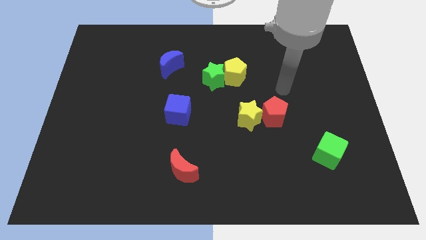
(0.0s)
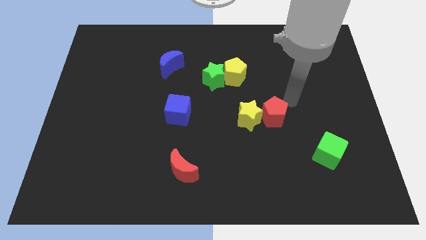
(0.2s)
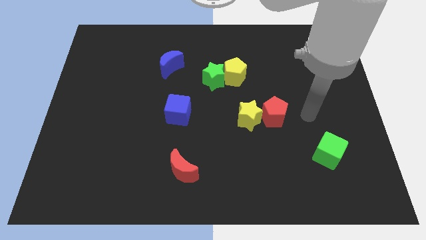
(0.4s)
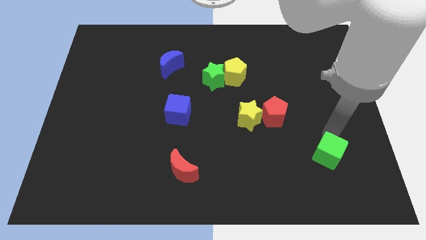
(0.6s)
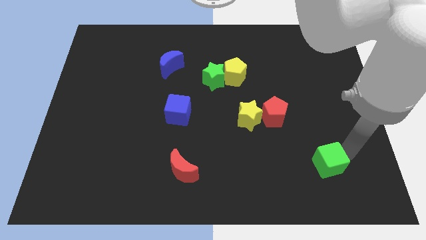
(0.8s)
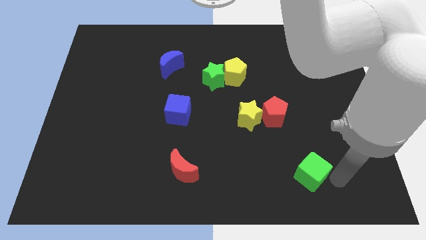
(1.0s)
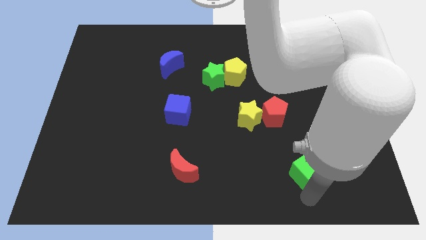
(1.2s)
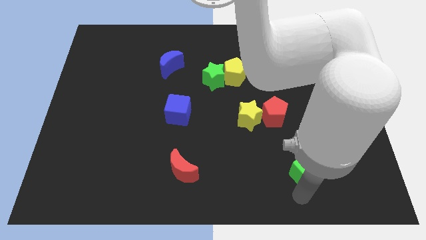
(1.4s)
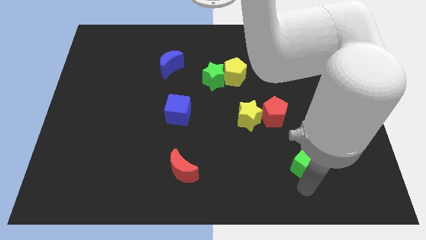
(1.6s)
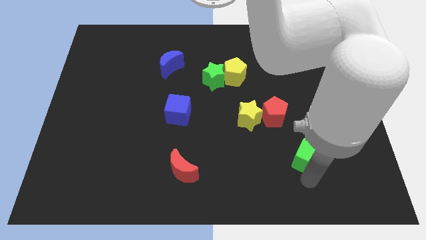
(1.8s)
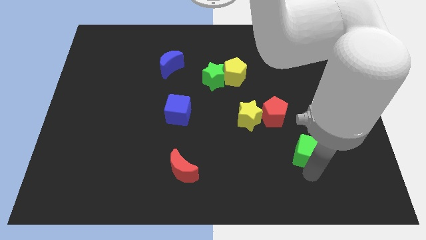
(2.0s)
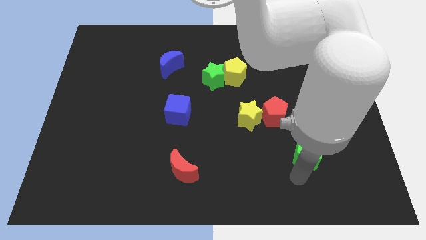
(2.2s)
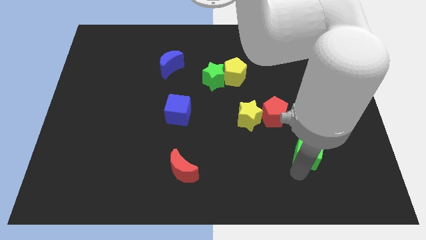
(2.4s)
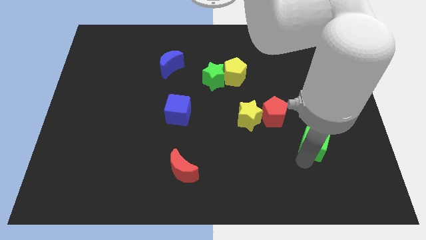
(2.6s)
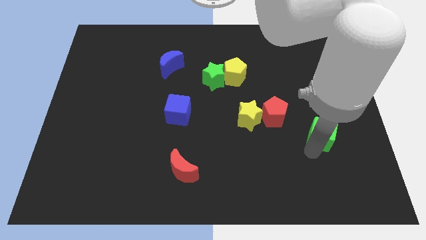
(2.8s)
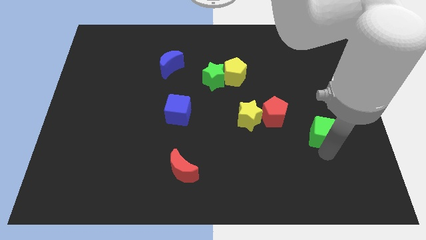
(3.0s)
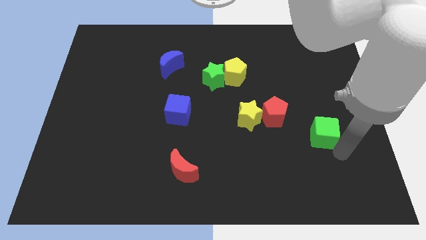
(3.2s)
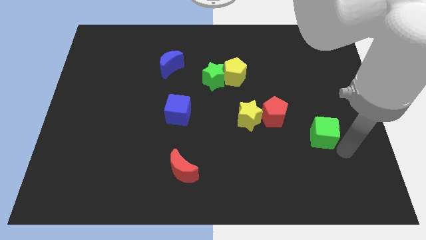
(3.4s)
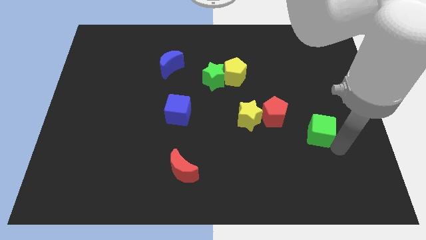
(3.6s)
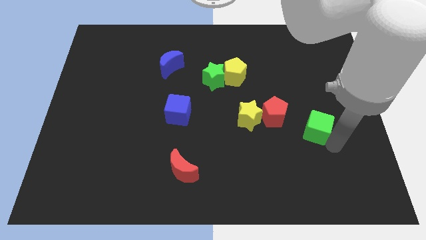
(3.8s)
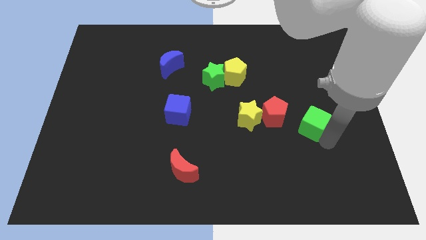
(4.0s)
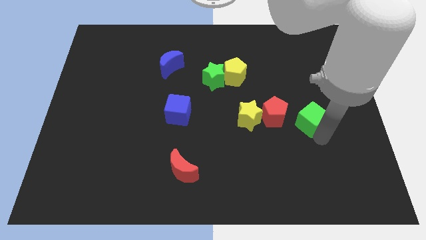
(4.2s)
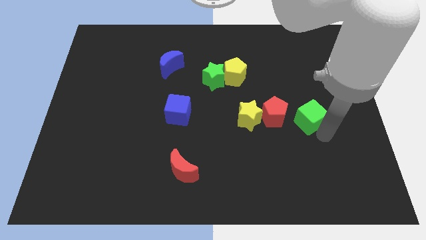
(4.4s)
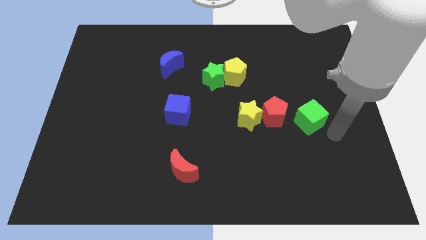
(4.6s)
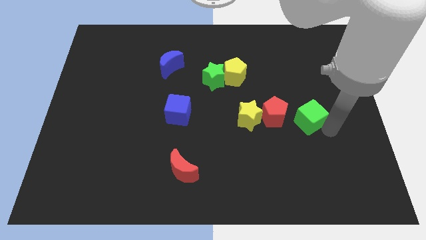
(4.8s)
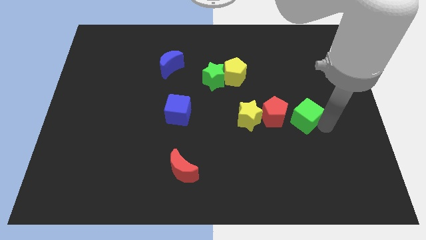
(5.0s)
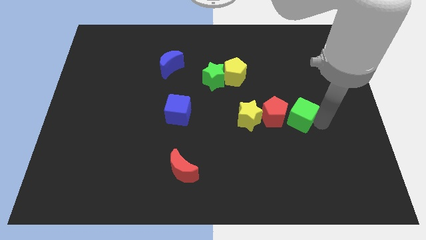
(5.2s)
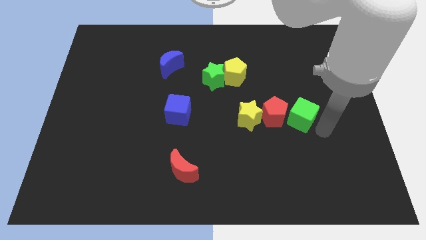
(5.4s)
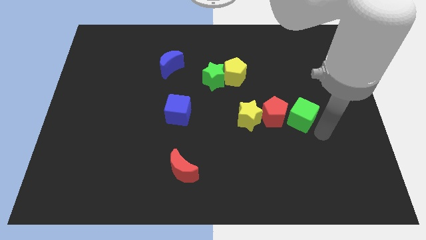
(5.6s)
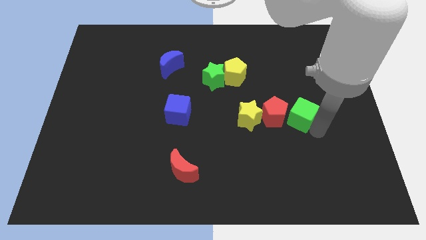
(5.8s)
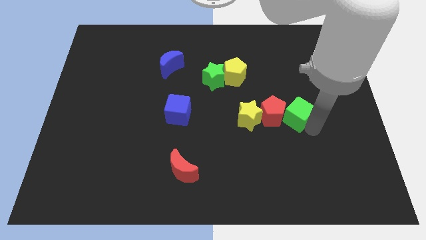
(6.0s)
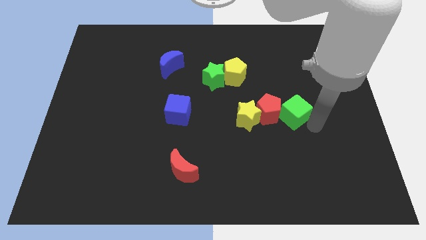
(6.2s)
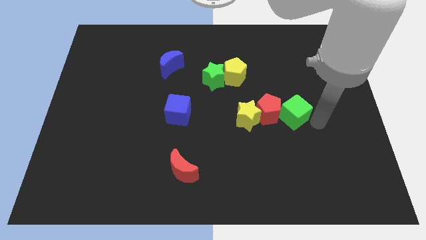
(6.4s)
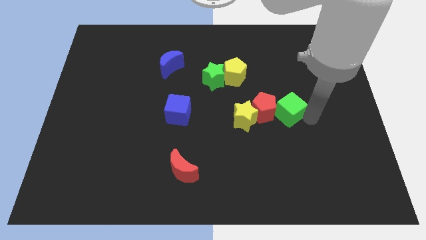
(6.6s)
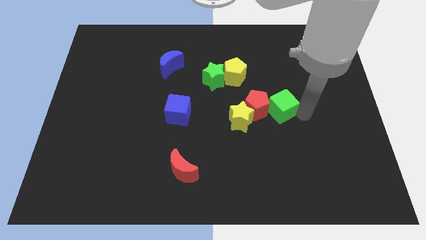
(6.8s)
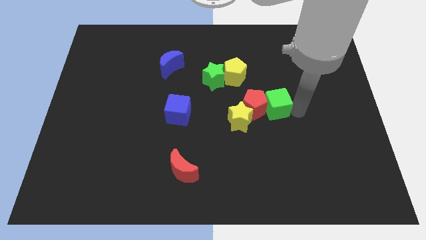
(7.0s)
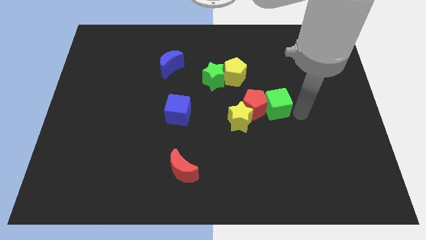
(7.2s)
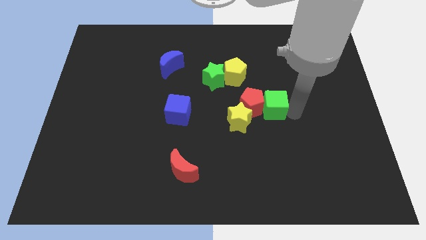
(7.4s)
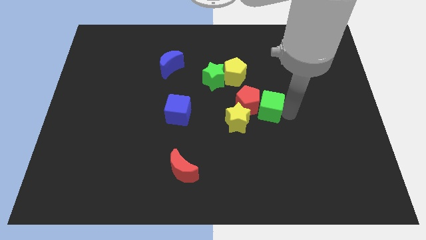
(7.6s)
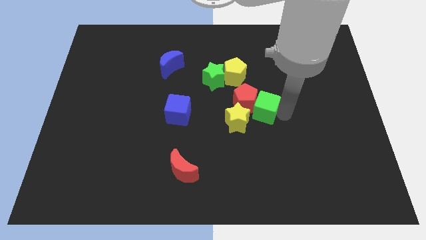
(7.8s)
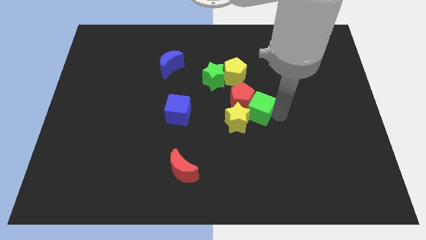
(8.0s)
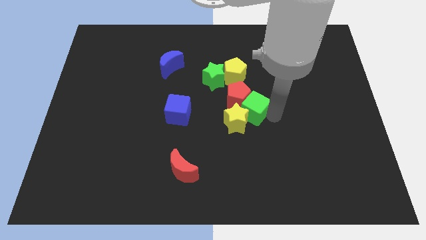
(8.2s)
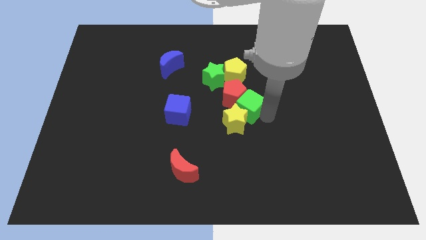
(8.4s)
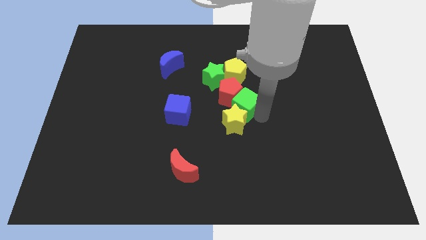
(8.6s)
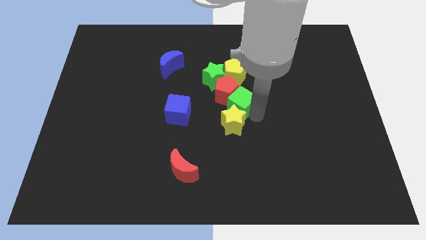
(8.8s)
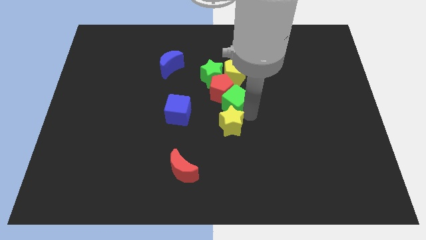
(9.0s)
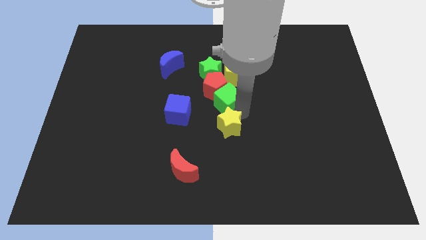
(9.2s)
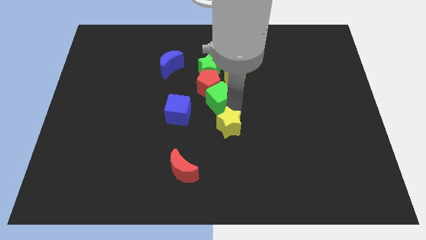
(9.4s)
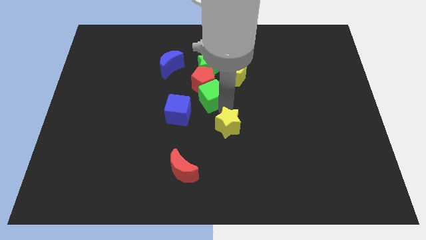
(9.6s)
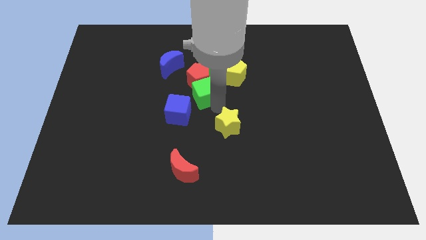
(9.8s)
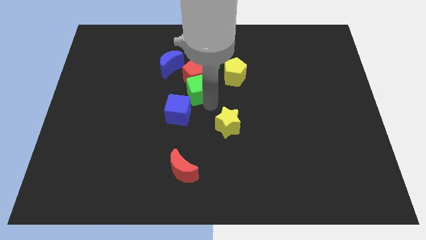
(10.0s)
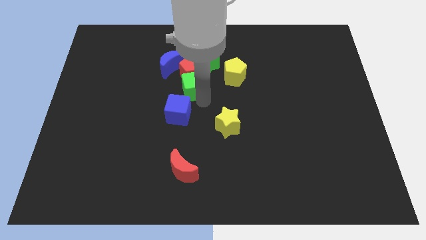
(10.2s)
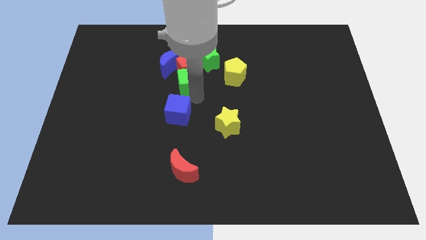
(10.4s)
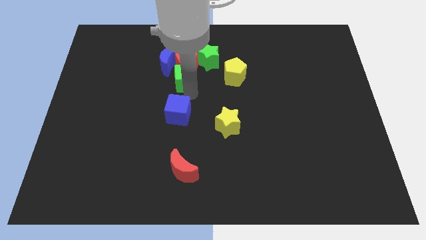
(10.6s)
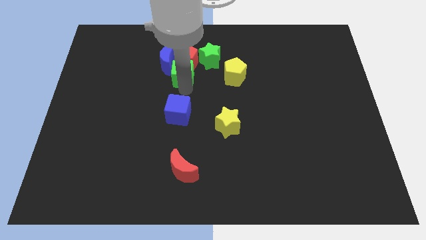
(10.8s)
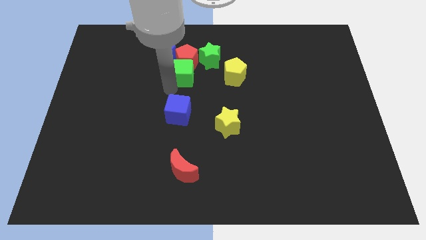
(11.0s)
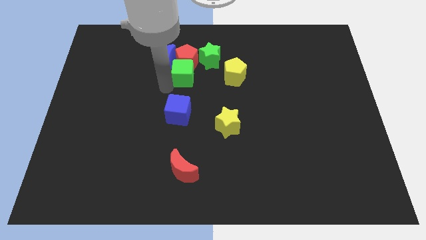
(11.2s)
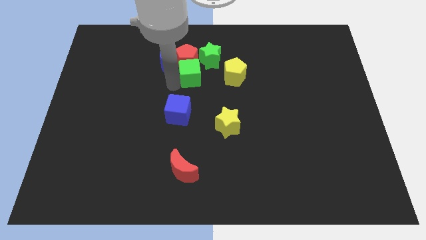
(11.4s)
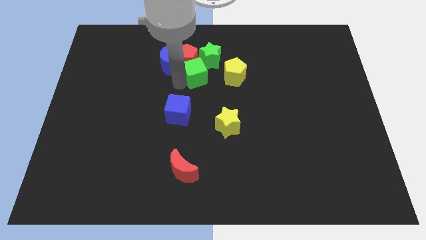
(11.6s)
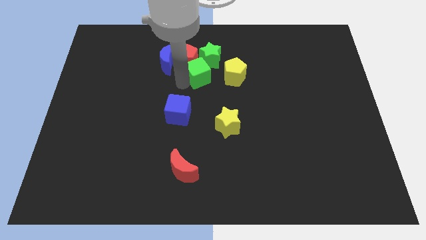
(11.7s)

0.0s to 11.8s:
put the green cube to the green star

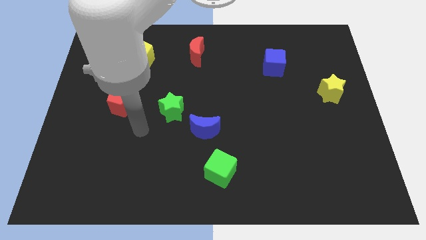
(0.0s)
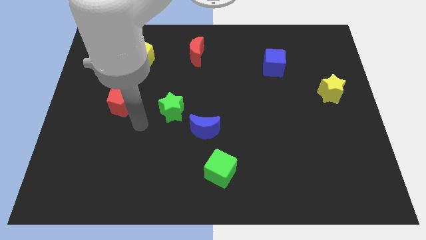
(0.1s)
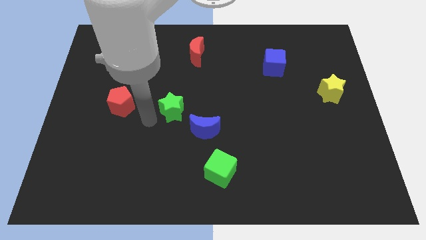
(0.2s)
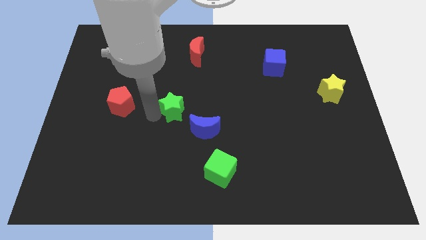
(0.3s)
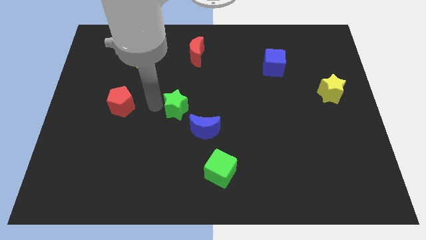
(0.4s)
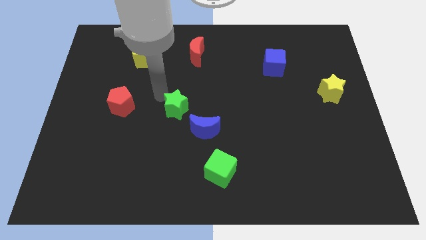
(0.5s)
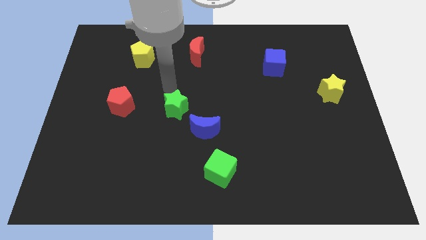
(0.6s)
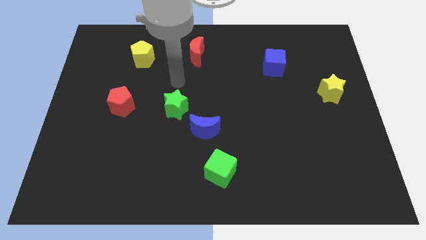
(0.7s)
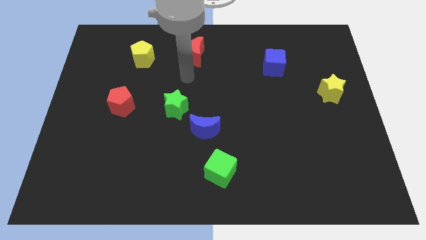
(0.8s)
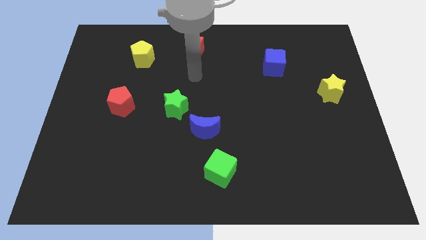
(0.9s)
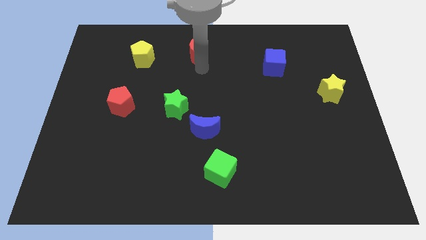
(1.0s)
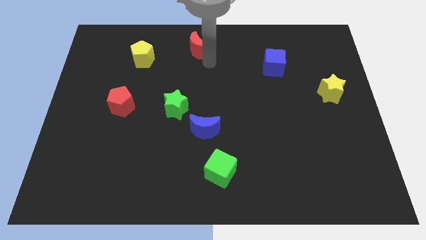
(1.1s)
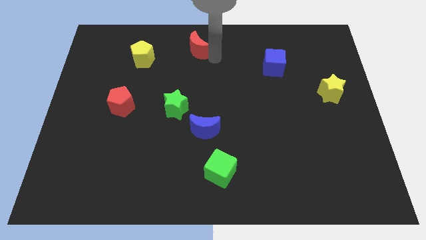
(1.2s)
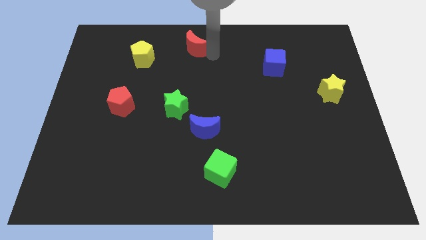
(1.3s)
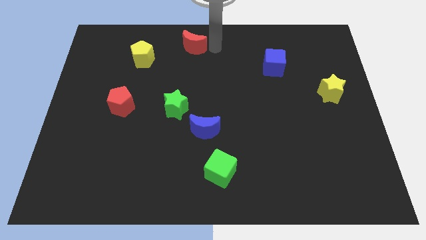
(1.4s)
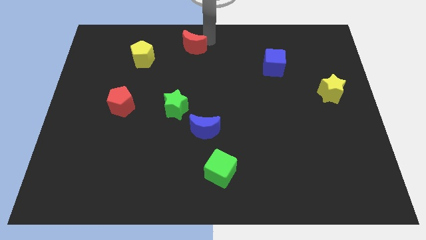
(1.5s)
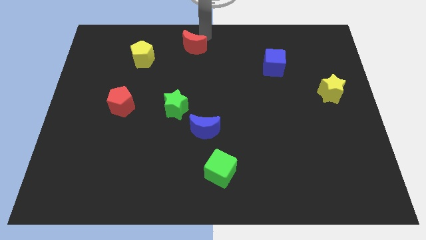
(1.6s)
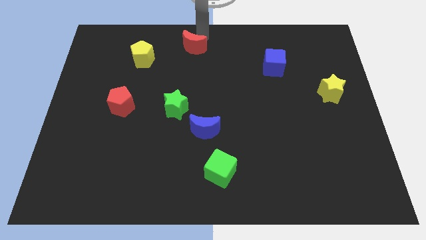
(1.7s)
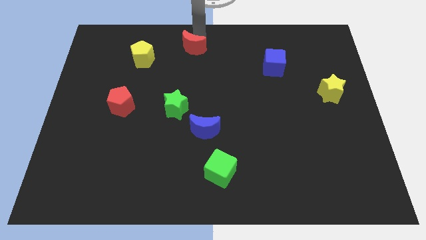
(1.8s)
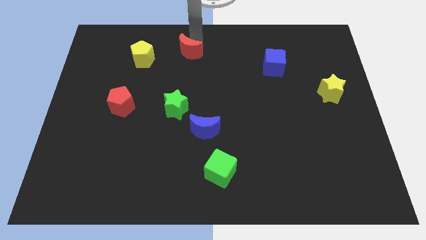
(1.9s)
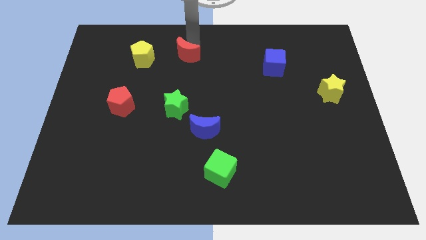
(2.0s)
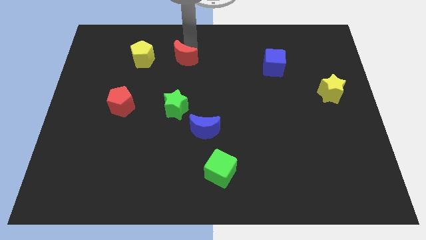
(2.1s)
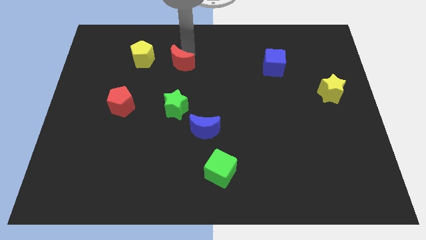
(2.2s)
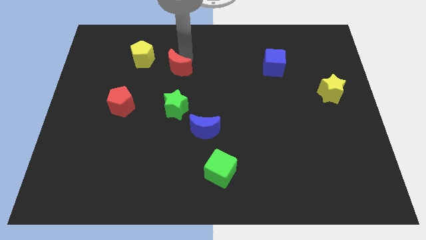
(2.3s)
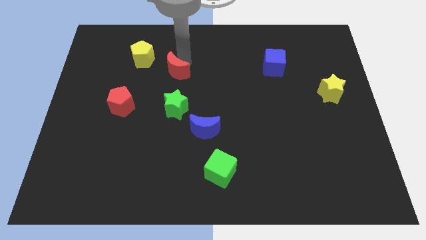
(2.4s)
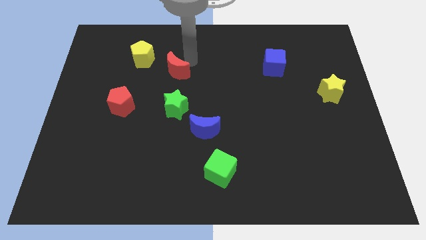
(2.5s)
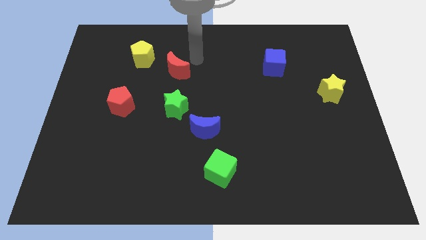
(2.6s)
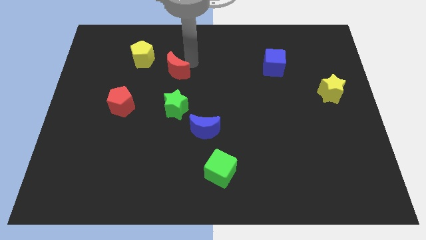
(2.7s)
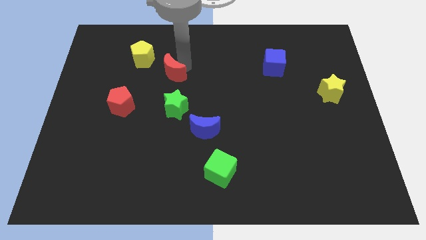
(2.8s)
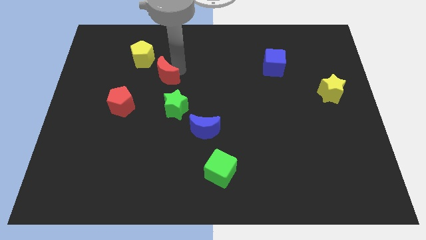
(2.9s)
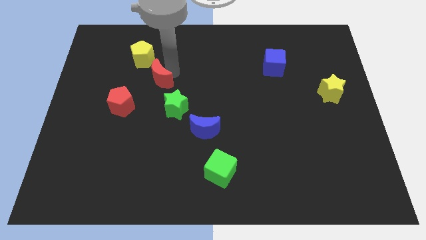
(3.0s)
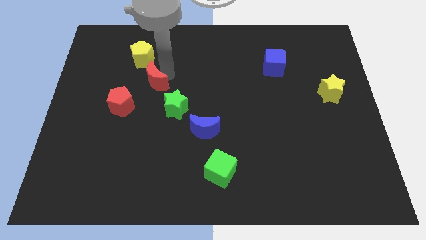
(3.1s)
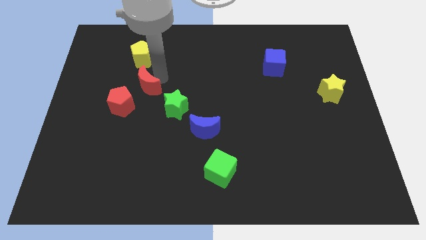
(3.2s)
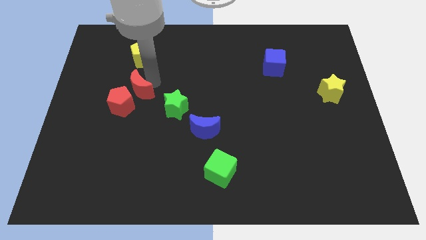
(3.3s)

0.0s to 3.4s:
put the red moon close to the red pentagon
